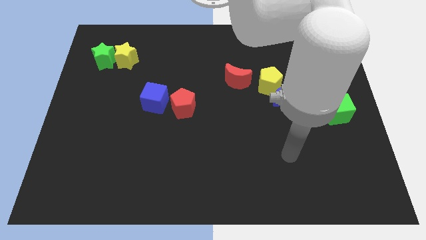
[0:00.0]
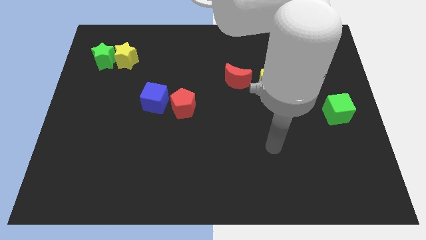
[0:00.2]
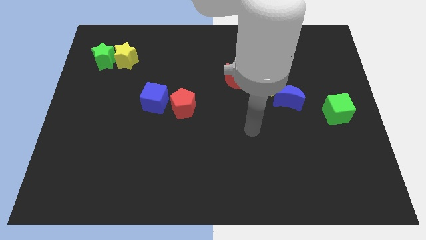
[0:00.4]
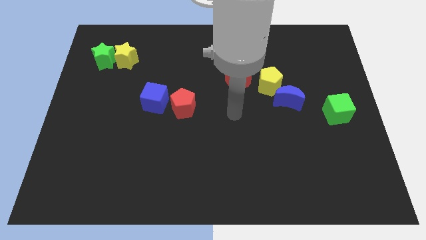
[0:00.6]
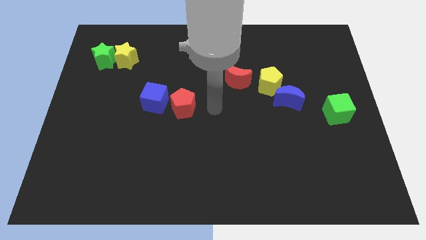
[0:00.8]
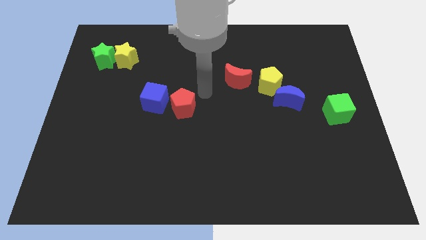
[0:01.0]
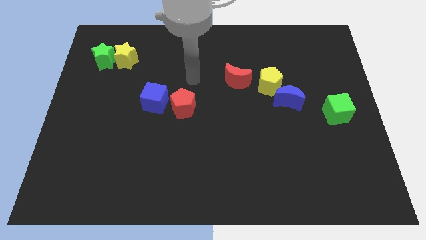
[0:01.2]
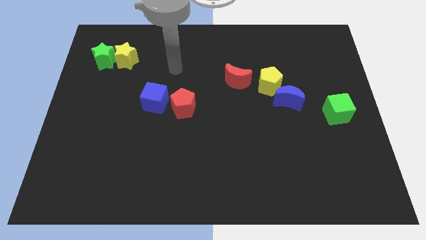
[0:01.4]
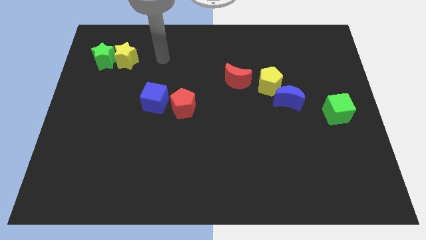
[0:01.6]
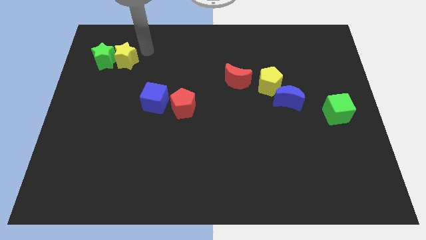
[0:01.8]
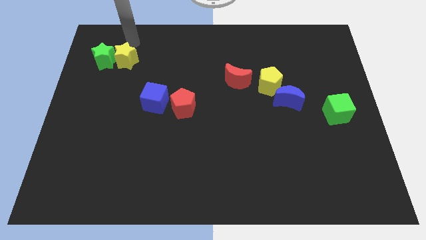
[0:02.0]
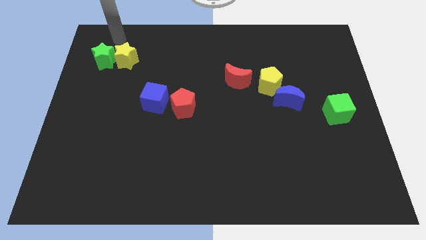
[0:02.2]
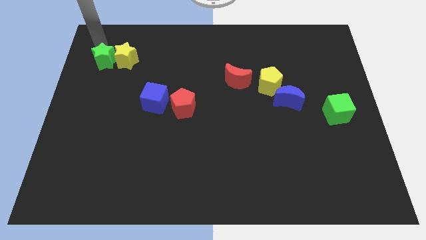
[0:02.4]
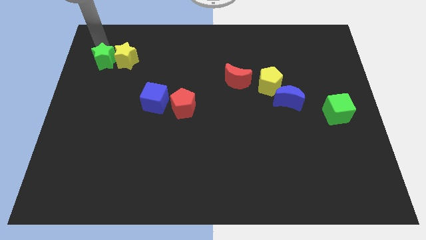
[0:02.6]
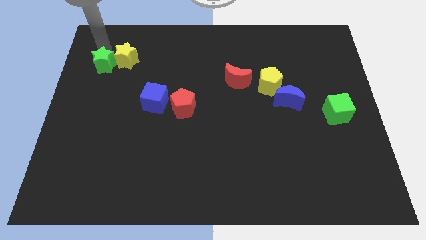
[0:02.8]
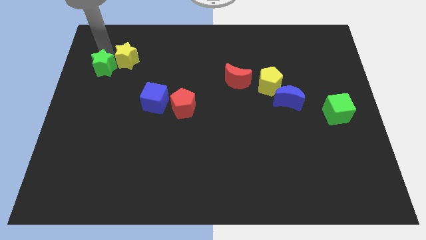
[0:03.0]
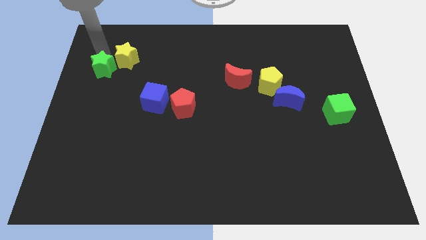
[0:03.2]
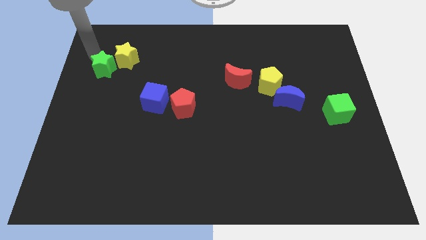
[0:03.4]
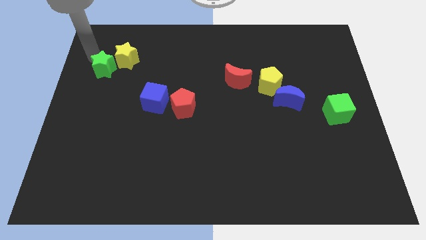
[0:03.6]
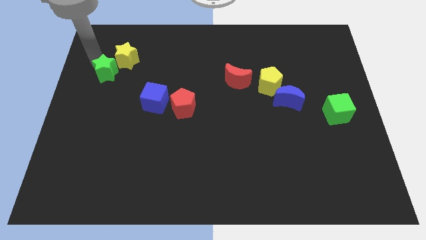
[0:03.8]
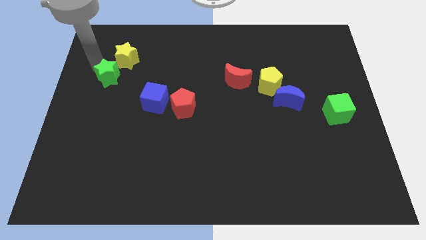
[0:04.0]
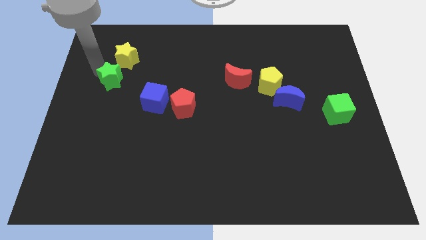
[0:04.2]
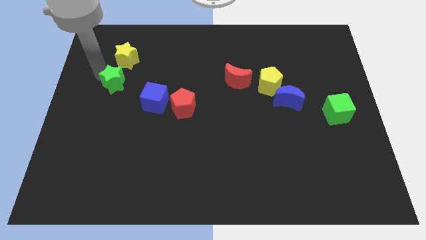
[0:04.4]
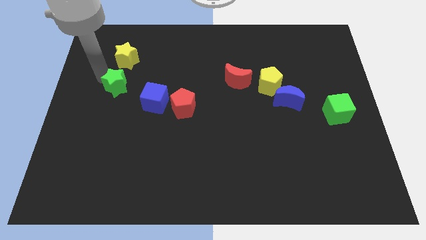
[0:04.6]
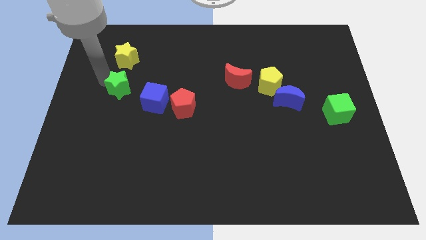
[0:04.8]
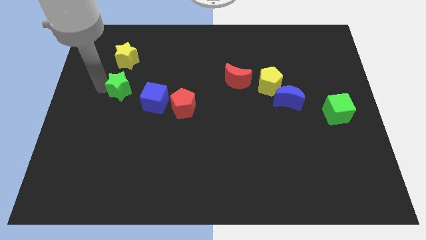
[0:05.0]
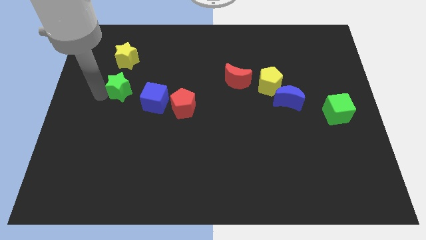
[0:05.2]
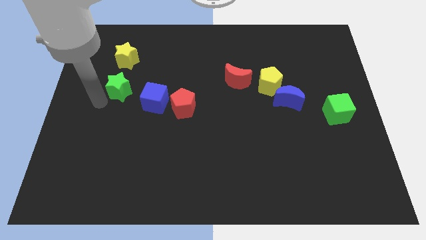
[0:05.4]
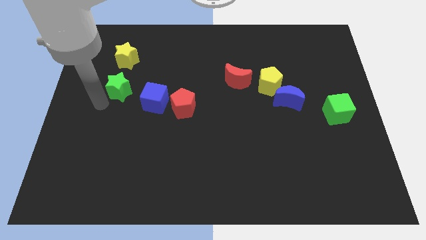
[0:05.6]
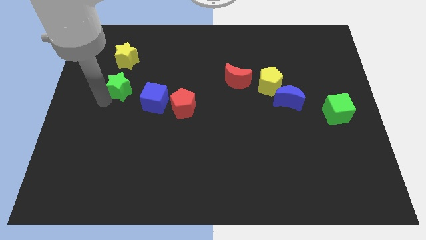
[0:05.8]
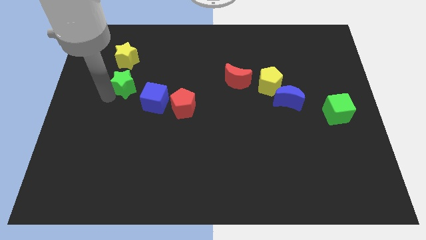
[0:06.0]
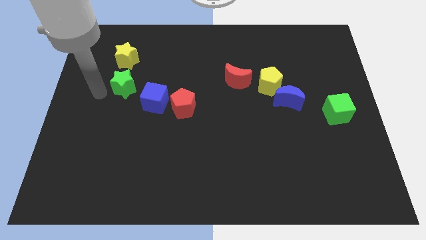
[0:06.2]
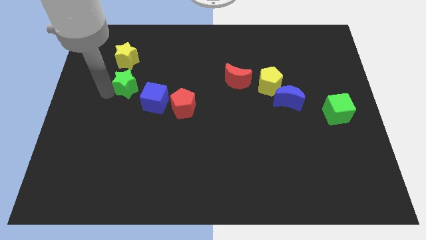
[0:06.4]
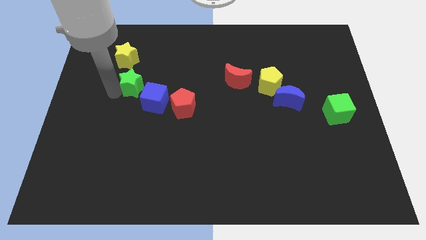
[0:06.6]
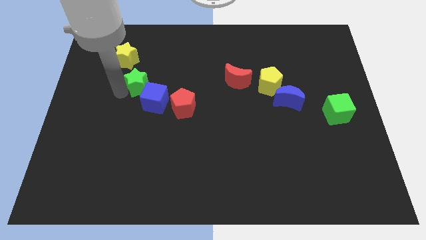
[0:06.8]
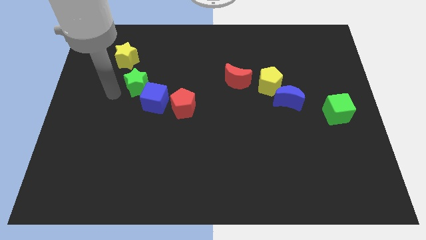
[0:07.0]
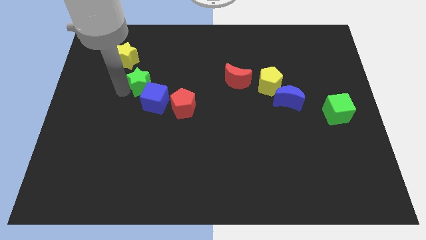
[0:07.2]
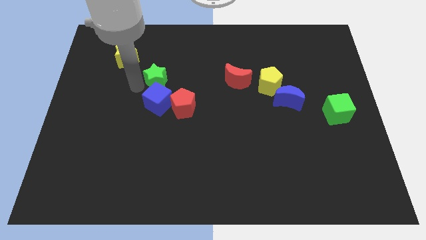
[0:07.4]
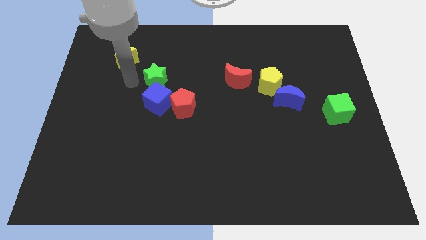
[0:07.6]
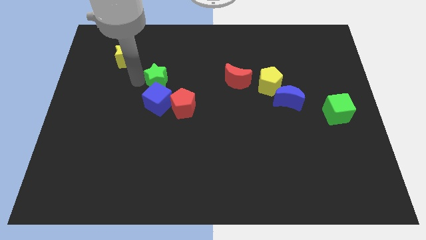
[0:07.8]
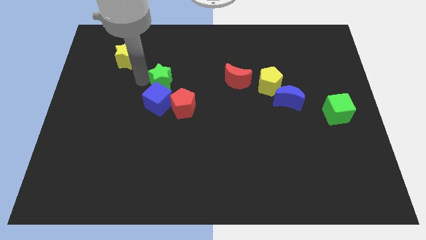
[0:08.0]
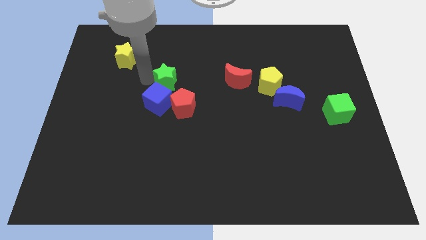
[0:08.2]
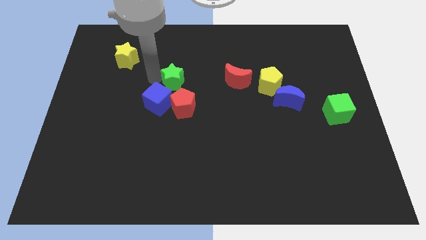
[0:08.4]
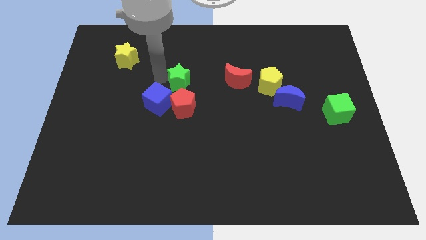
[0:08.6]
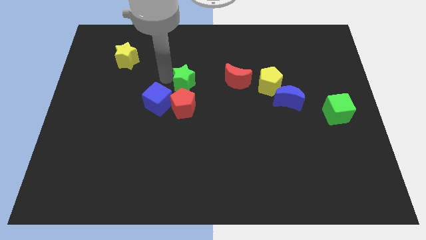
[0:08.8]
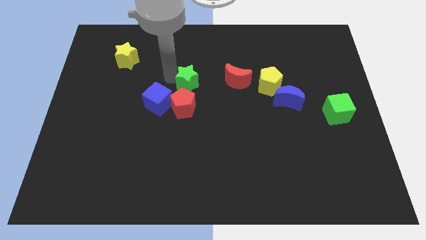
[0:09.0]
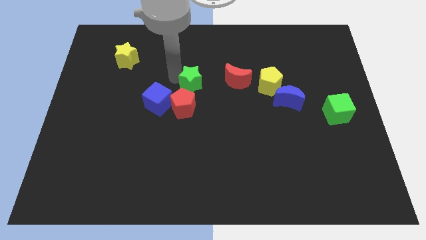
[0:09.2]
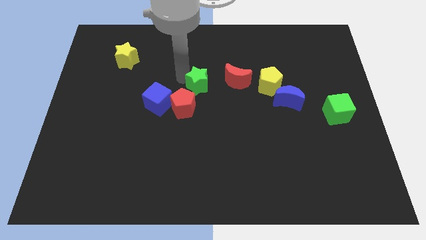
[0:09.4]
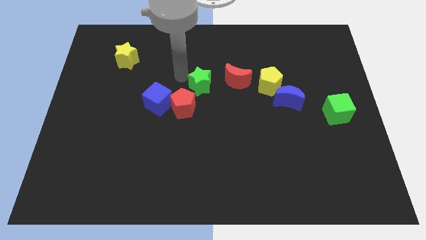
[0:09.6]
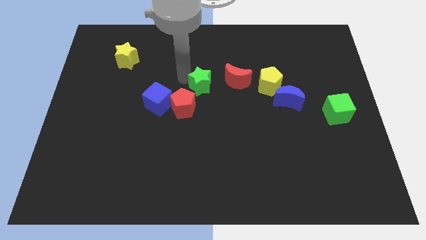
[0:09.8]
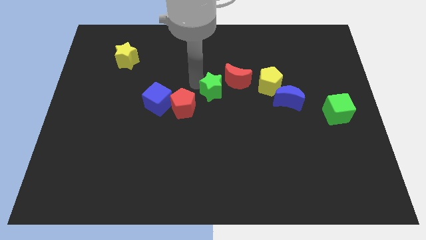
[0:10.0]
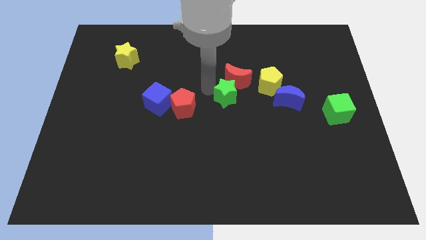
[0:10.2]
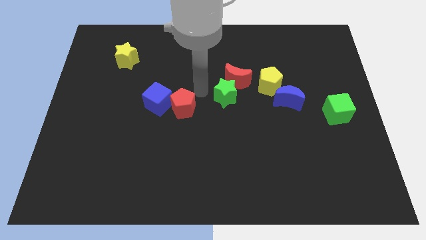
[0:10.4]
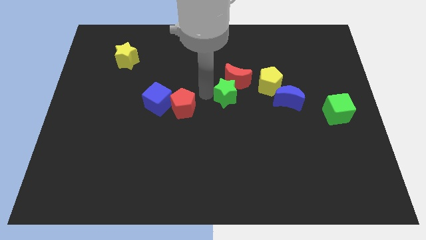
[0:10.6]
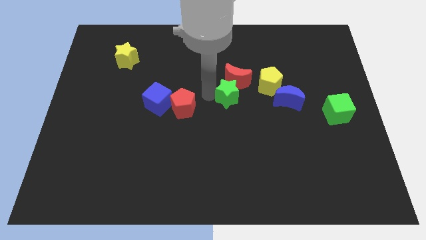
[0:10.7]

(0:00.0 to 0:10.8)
move the green star to the bottom left of the yellow pentagon

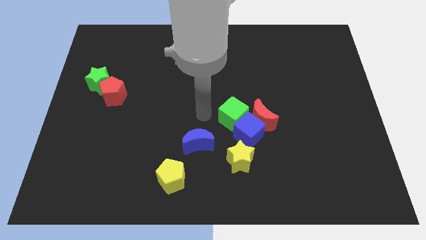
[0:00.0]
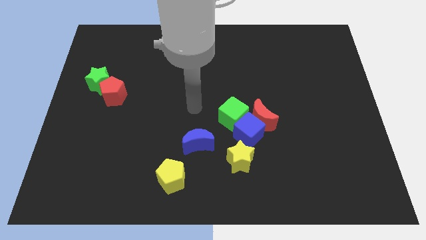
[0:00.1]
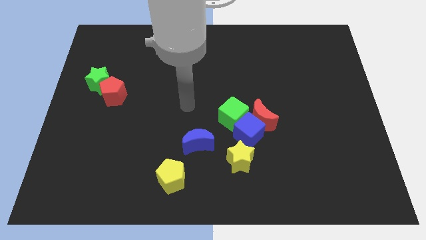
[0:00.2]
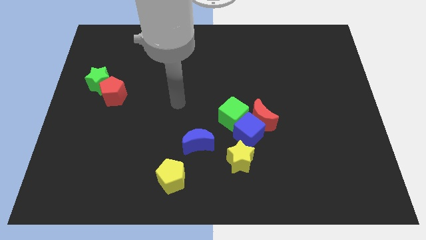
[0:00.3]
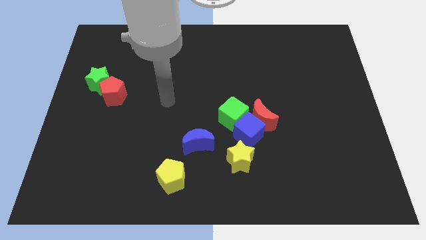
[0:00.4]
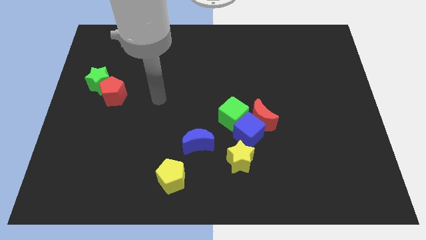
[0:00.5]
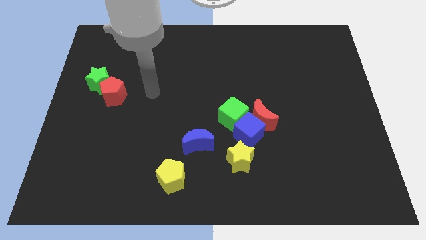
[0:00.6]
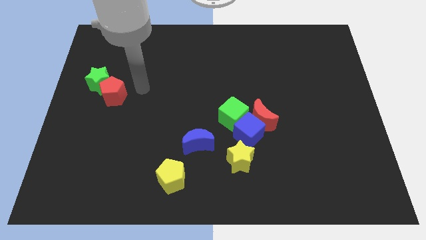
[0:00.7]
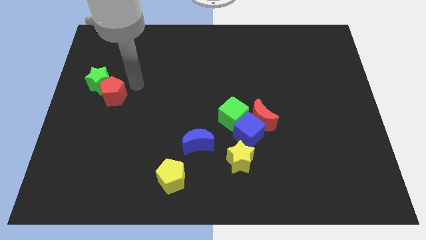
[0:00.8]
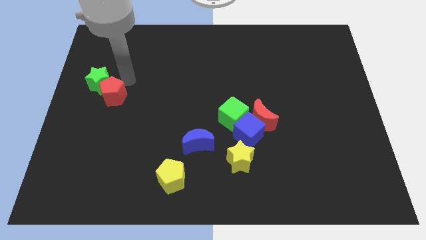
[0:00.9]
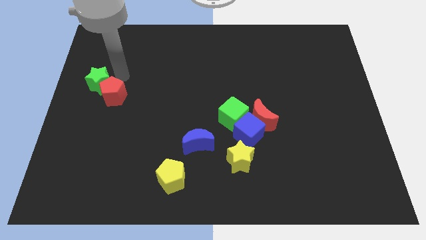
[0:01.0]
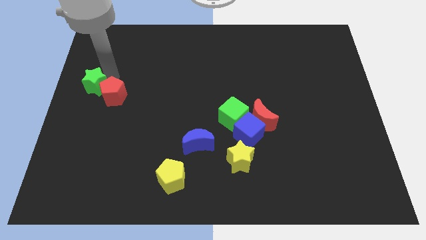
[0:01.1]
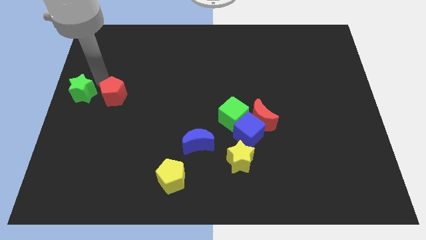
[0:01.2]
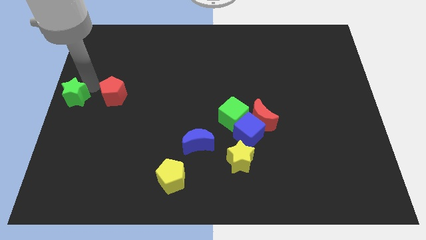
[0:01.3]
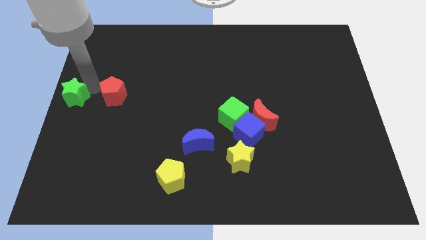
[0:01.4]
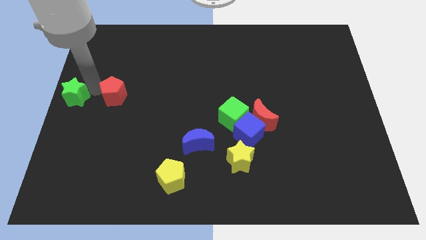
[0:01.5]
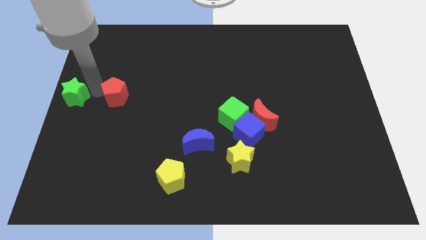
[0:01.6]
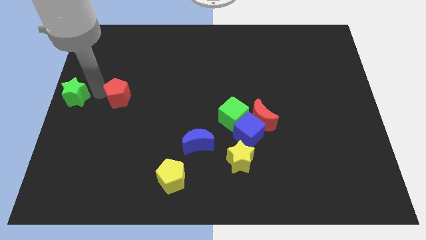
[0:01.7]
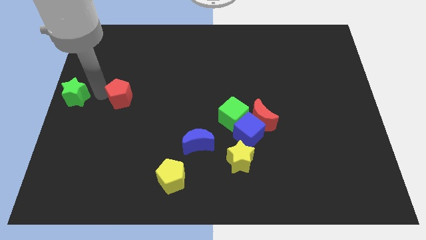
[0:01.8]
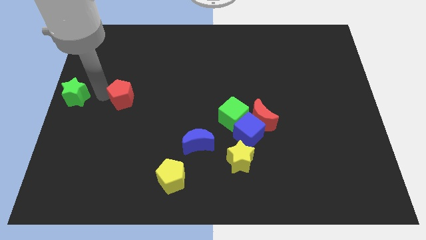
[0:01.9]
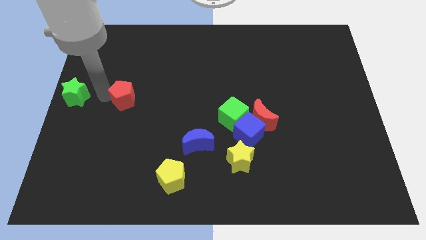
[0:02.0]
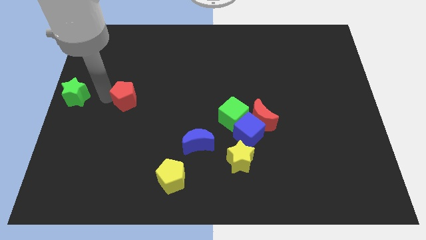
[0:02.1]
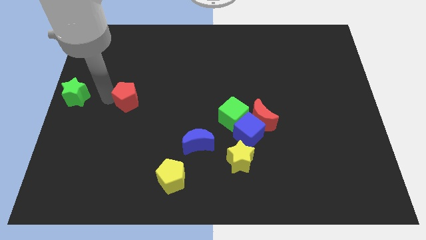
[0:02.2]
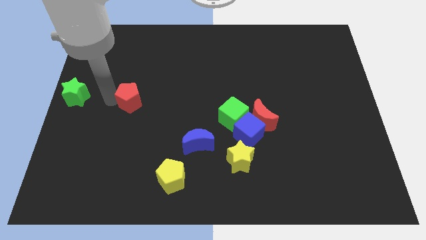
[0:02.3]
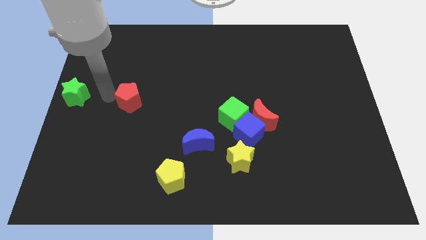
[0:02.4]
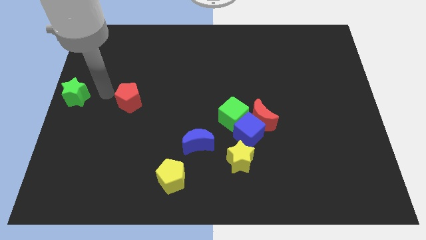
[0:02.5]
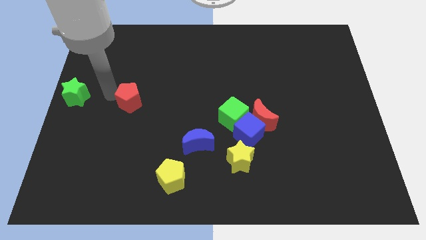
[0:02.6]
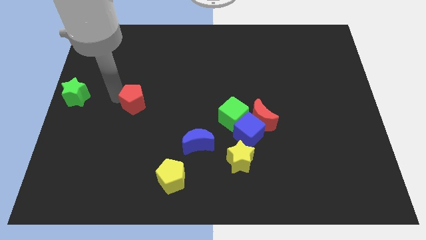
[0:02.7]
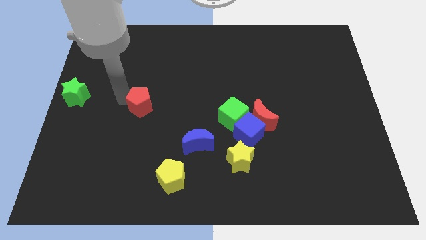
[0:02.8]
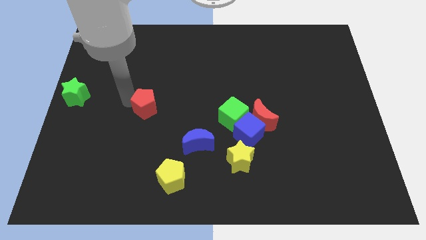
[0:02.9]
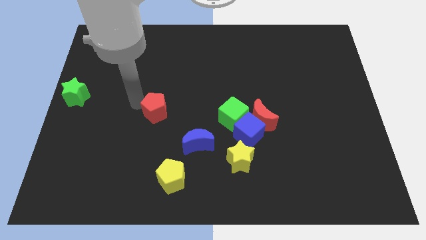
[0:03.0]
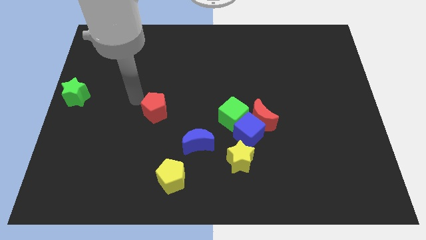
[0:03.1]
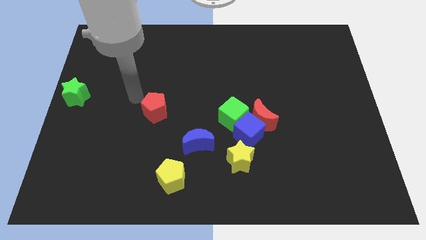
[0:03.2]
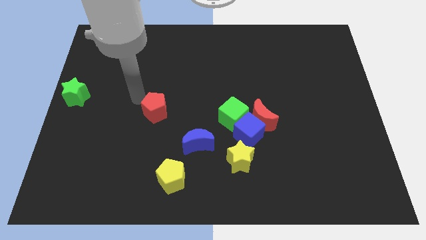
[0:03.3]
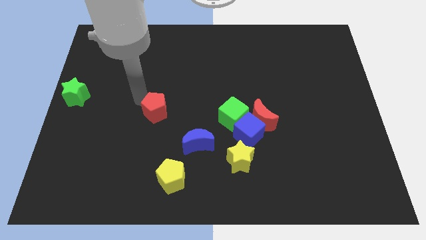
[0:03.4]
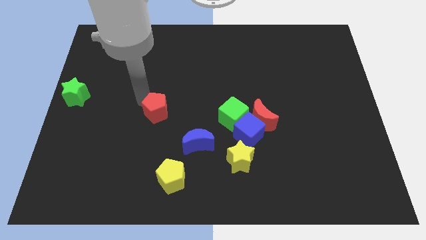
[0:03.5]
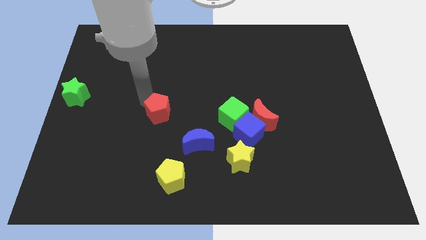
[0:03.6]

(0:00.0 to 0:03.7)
move the red pentagon to the top left of the blue moon
